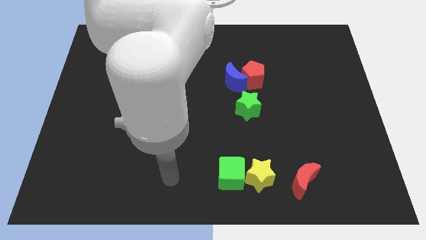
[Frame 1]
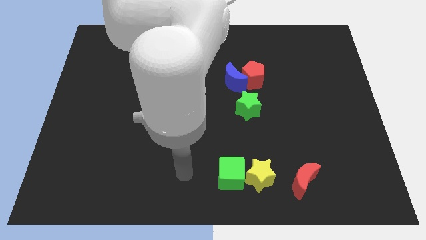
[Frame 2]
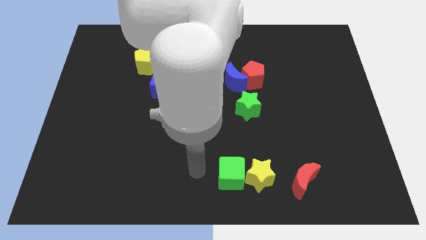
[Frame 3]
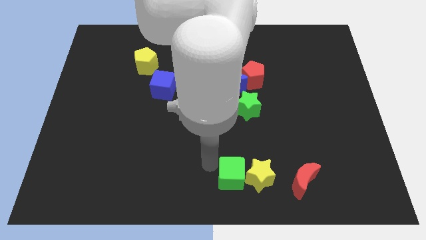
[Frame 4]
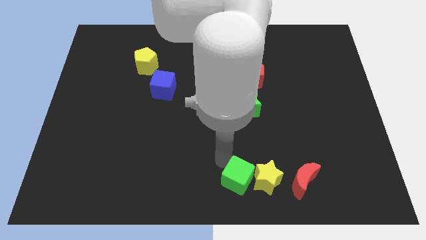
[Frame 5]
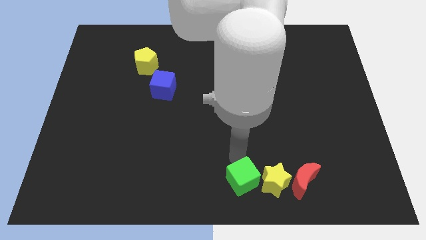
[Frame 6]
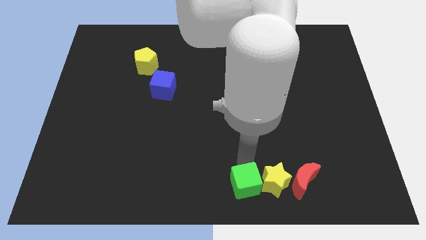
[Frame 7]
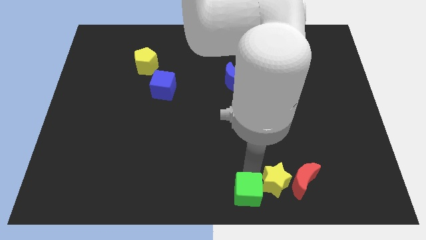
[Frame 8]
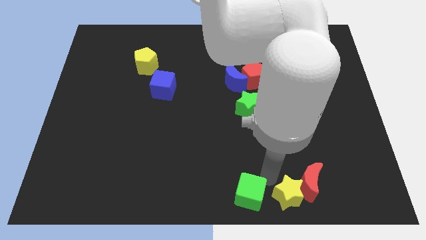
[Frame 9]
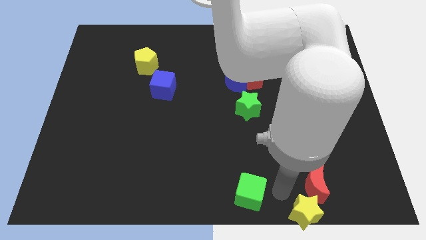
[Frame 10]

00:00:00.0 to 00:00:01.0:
pull the green cube apart from the yellow star

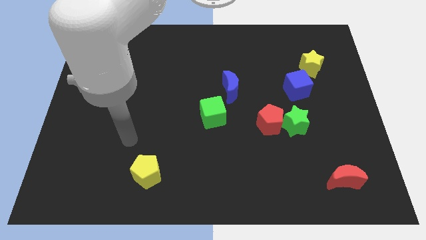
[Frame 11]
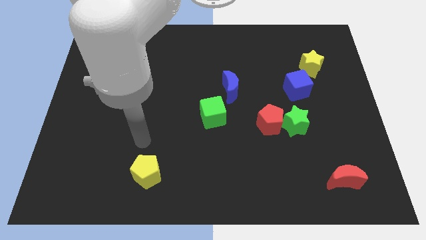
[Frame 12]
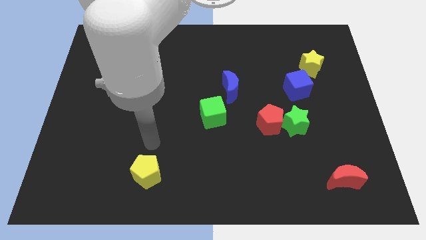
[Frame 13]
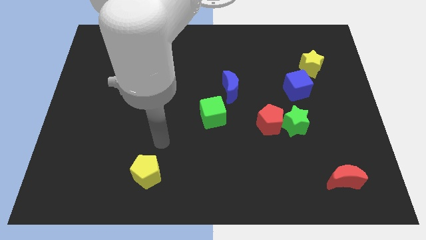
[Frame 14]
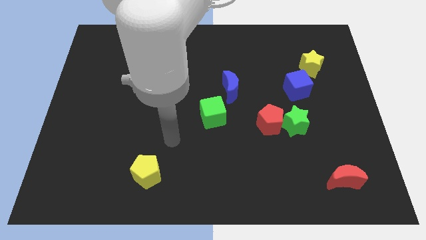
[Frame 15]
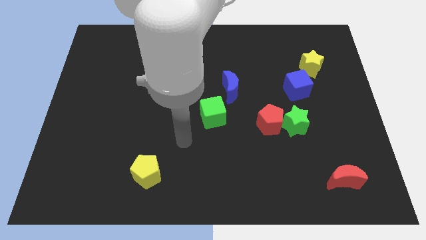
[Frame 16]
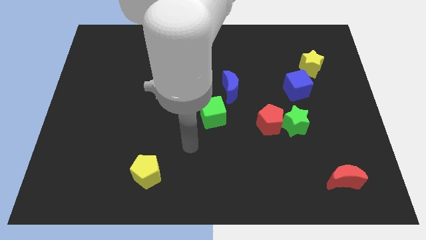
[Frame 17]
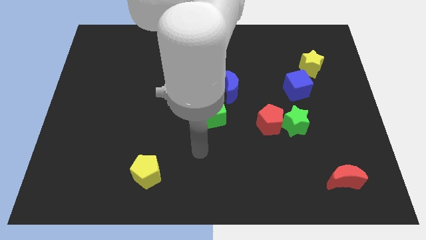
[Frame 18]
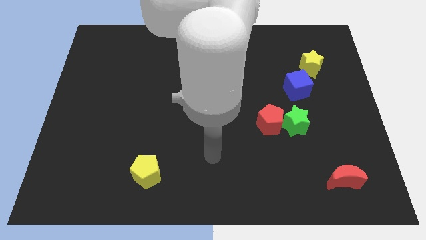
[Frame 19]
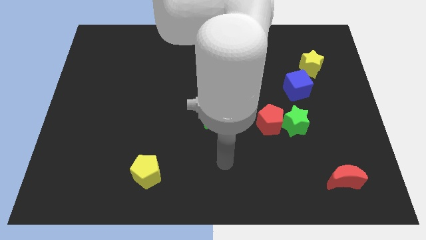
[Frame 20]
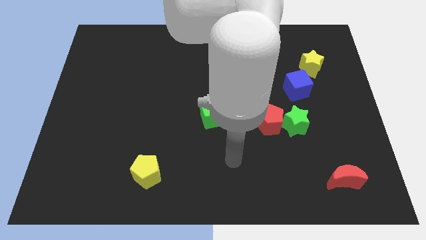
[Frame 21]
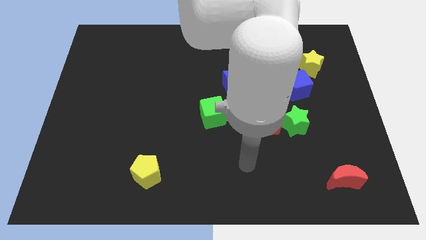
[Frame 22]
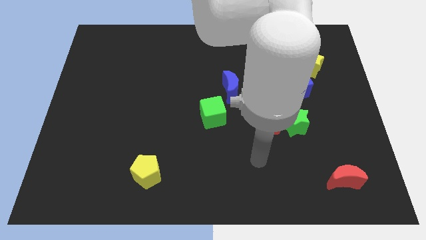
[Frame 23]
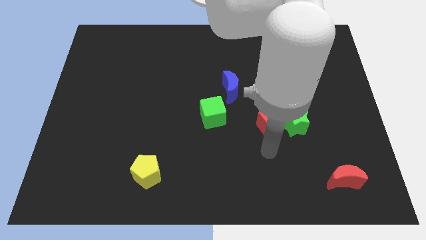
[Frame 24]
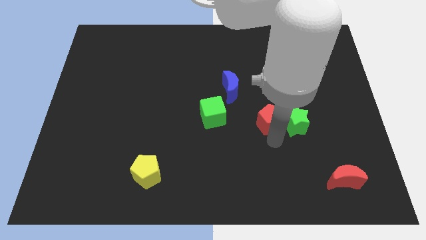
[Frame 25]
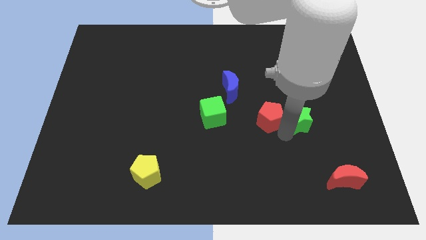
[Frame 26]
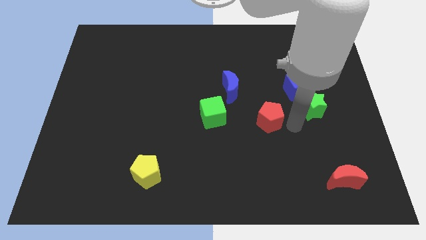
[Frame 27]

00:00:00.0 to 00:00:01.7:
pull the red pentagon apart from the green star

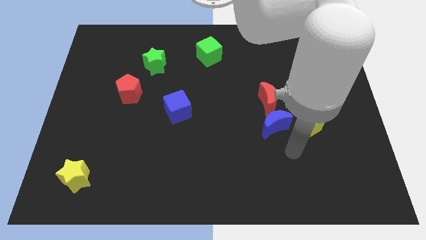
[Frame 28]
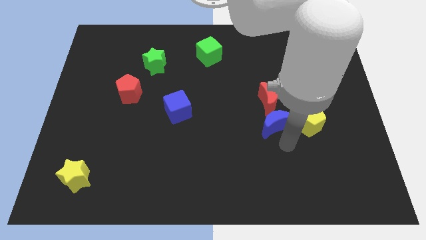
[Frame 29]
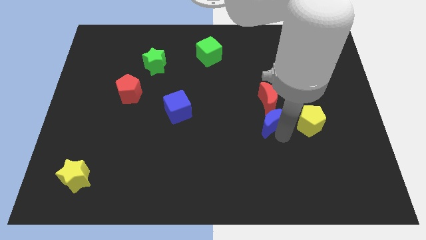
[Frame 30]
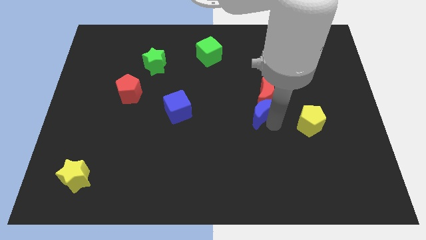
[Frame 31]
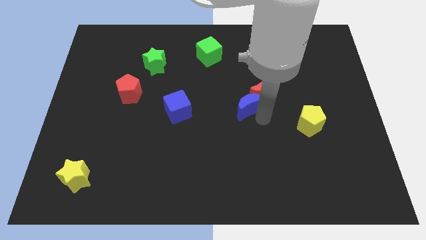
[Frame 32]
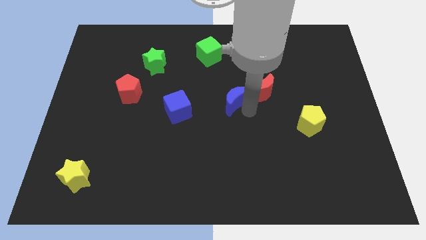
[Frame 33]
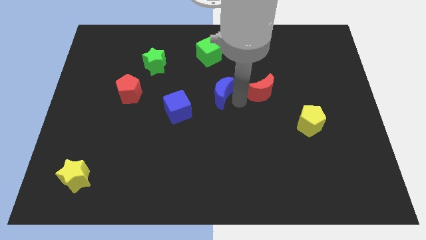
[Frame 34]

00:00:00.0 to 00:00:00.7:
move the red moon away from the blue moon

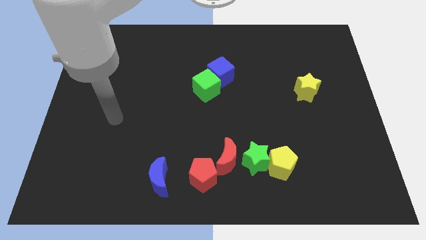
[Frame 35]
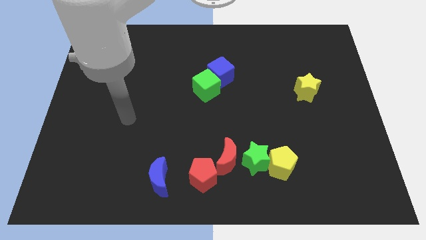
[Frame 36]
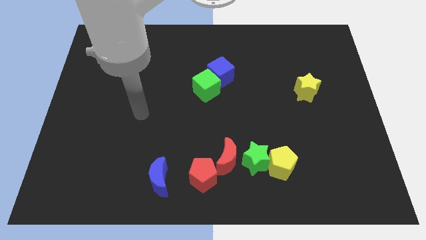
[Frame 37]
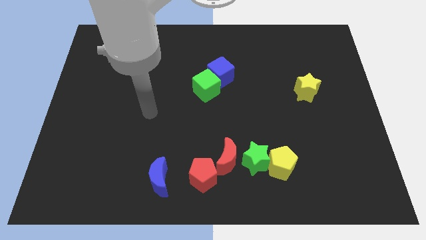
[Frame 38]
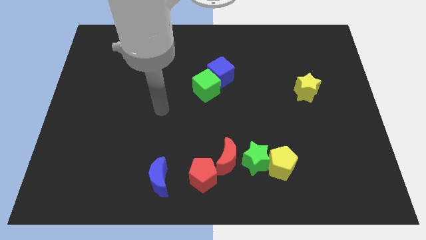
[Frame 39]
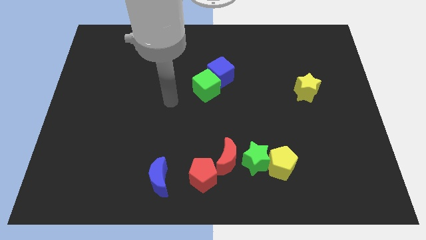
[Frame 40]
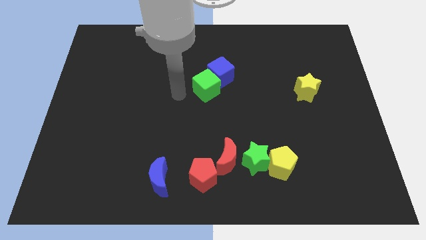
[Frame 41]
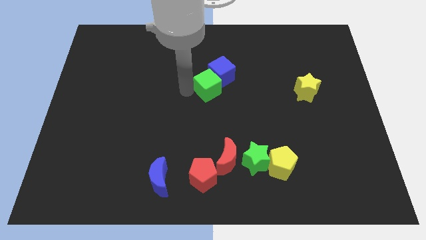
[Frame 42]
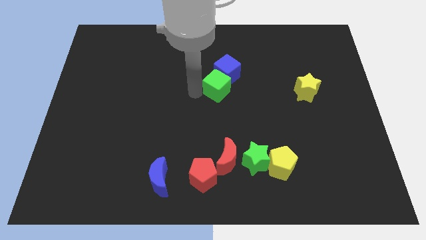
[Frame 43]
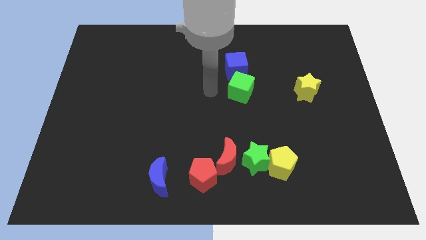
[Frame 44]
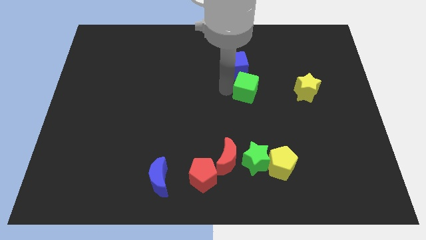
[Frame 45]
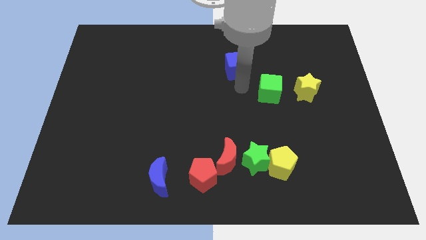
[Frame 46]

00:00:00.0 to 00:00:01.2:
separate the blue cube from the green cube

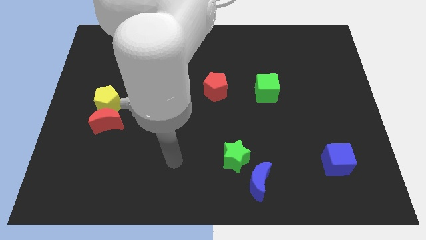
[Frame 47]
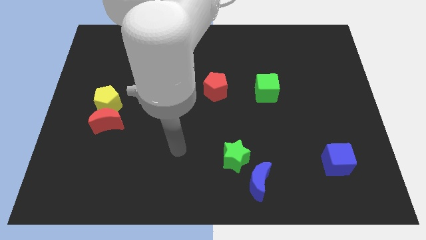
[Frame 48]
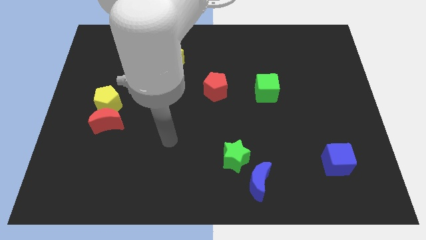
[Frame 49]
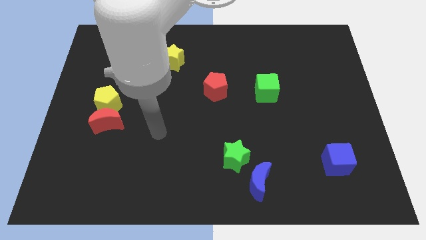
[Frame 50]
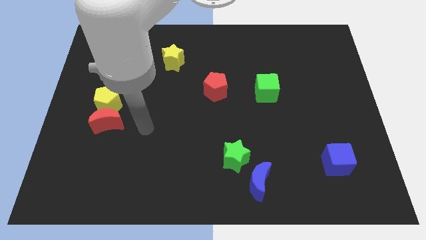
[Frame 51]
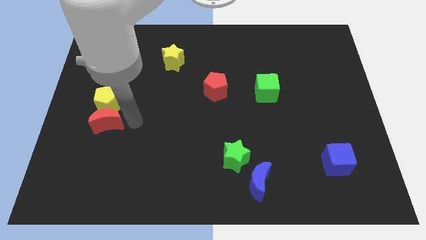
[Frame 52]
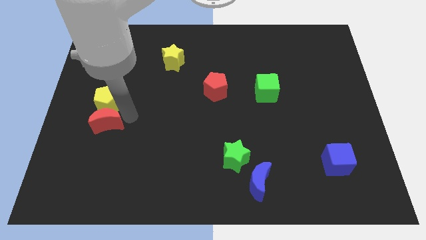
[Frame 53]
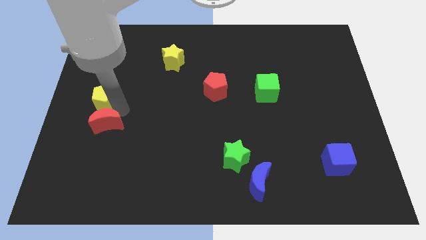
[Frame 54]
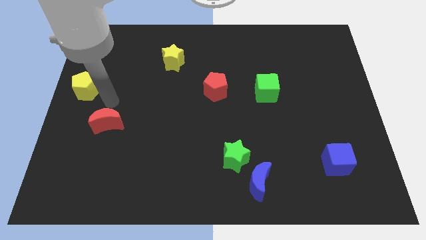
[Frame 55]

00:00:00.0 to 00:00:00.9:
separate the red moon from the yellow pentagon

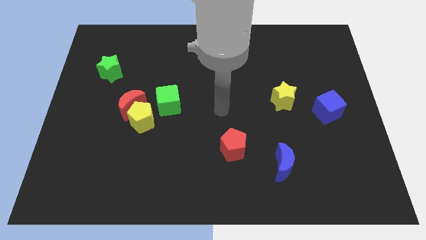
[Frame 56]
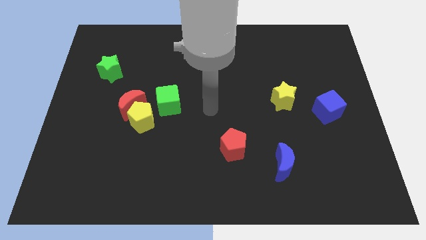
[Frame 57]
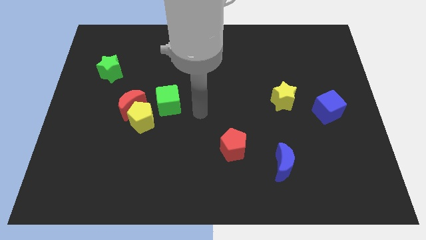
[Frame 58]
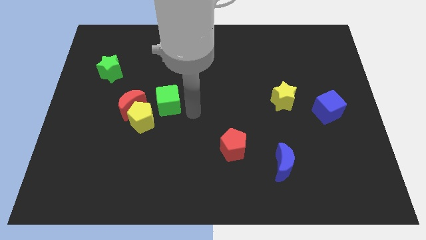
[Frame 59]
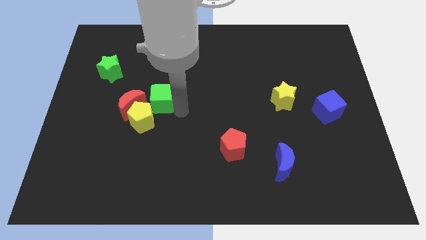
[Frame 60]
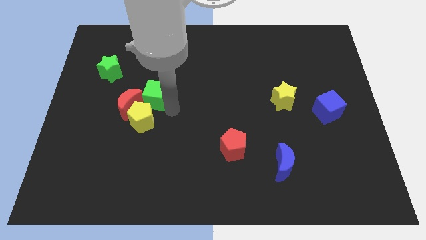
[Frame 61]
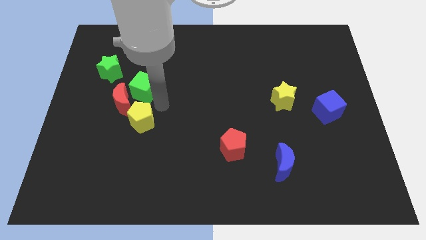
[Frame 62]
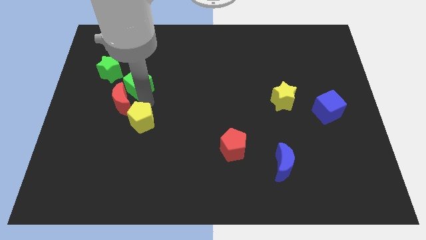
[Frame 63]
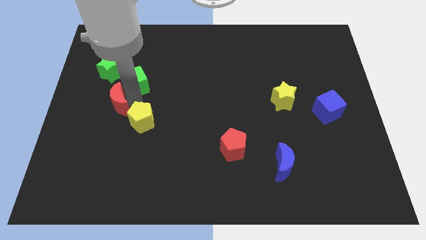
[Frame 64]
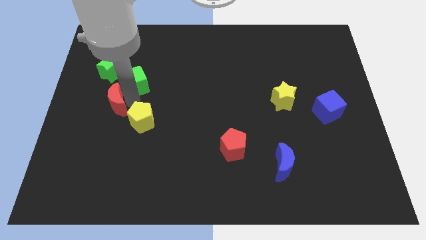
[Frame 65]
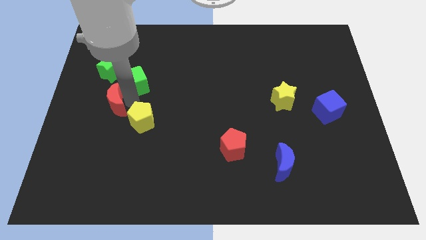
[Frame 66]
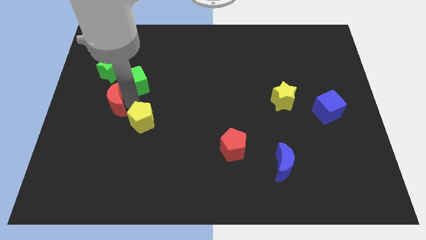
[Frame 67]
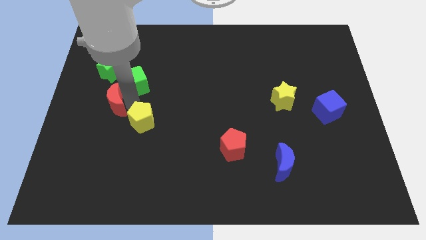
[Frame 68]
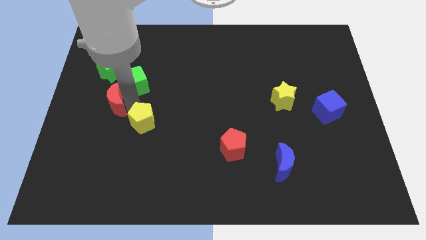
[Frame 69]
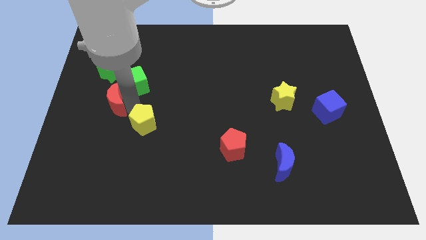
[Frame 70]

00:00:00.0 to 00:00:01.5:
pull the yellow pentagon apart from the red moon and green cube

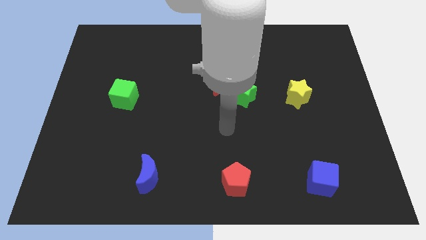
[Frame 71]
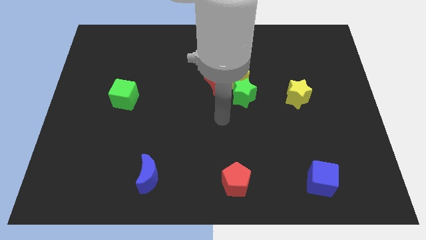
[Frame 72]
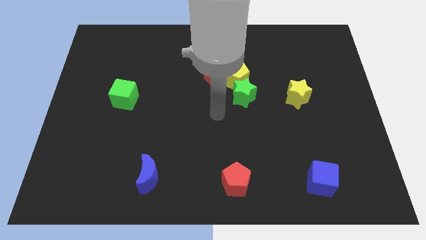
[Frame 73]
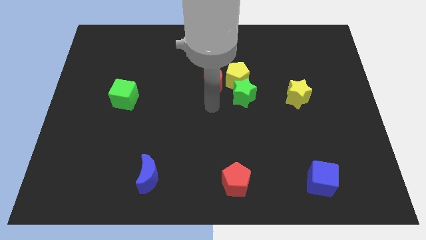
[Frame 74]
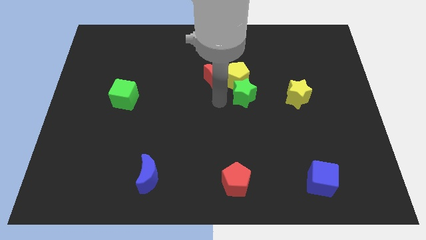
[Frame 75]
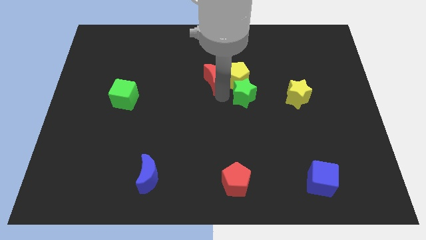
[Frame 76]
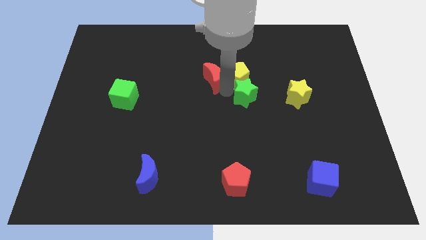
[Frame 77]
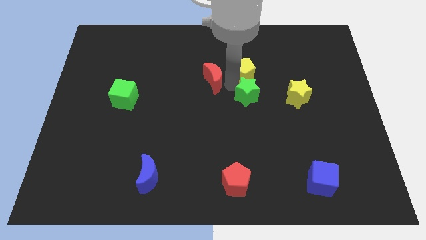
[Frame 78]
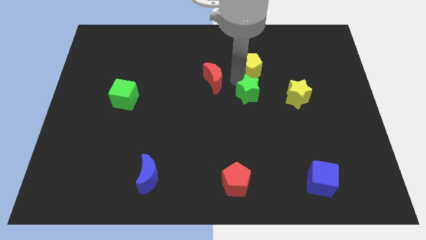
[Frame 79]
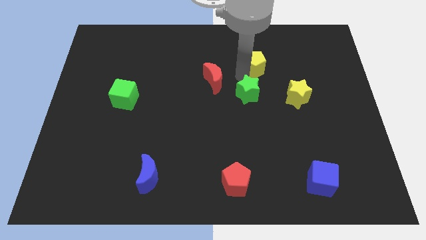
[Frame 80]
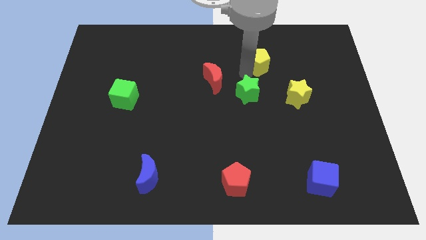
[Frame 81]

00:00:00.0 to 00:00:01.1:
separate the yellow pentagon from the green star and red moon

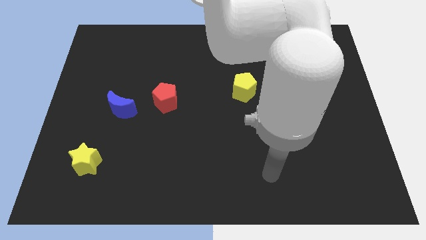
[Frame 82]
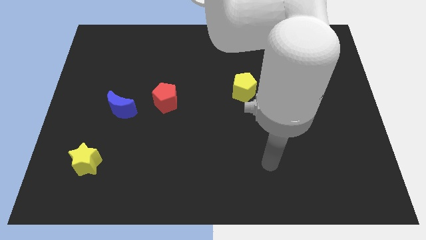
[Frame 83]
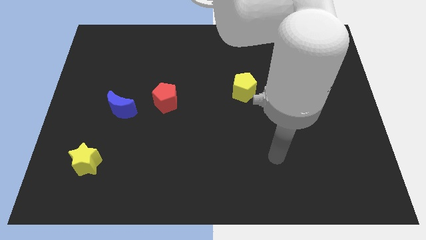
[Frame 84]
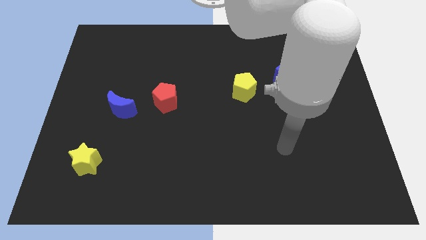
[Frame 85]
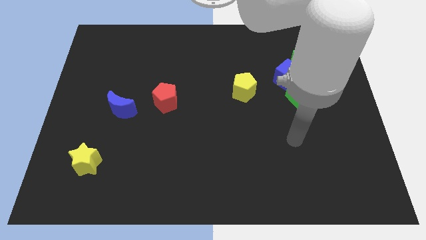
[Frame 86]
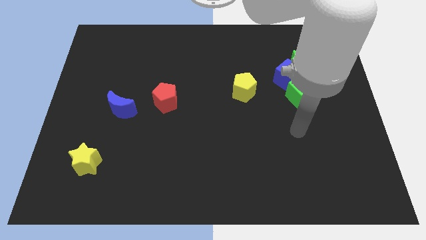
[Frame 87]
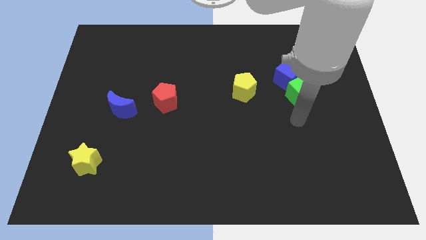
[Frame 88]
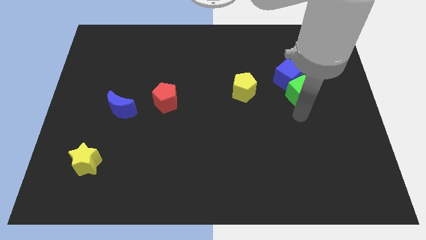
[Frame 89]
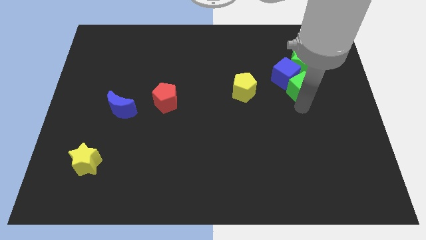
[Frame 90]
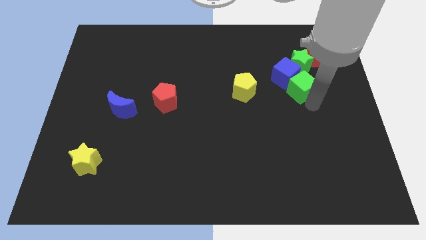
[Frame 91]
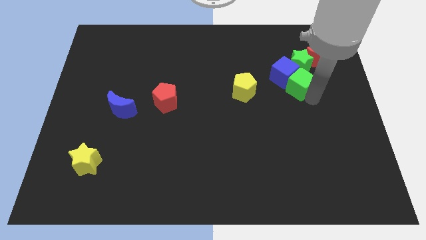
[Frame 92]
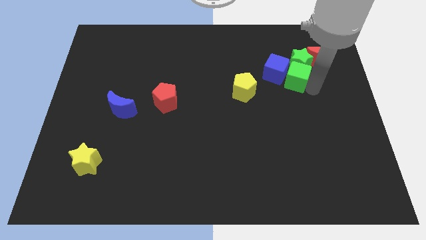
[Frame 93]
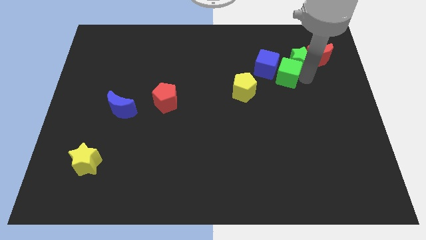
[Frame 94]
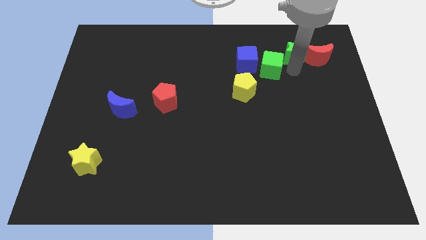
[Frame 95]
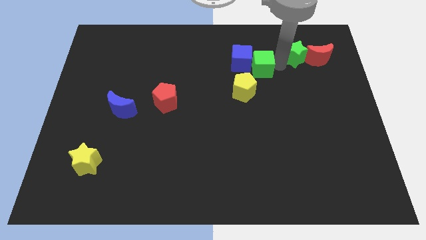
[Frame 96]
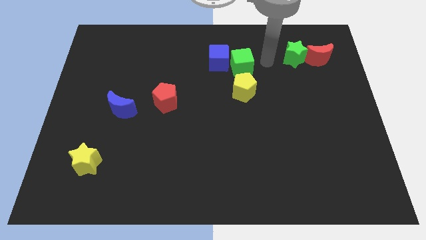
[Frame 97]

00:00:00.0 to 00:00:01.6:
separate the blue cube from the green star and green cube
